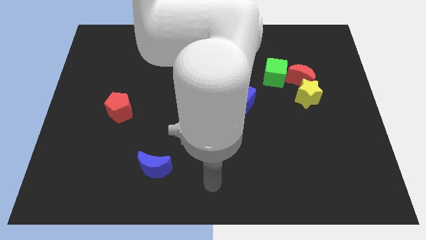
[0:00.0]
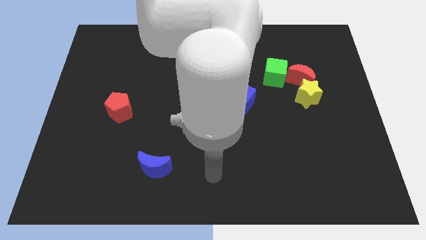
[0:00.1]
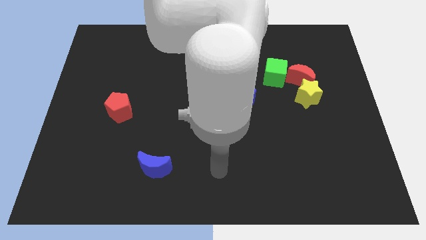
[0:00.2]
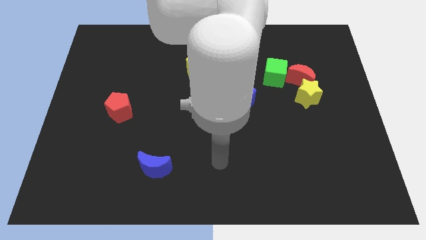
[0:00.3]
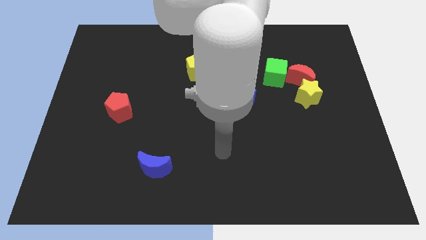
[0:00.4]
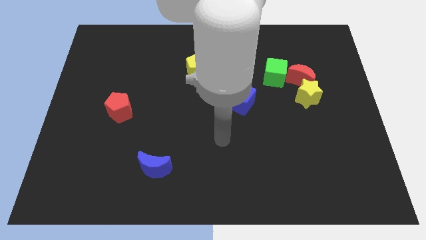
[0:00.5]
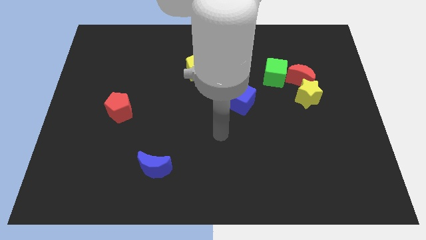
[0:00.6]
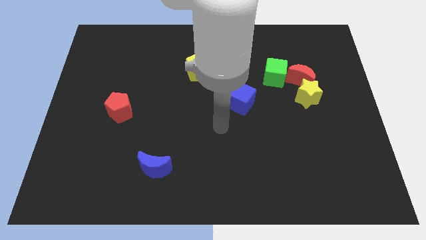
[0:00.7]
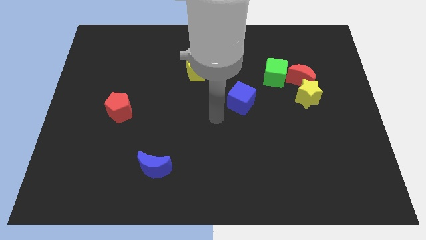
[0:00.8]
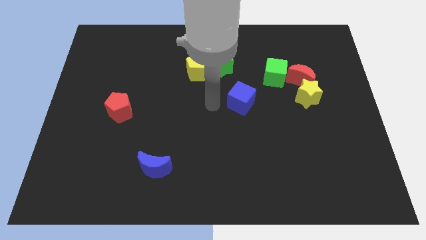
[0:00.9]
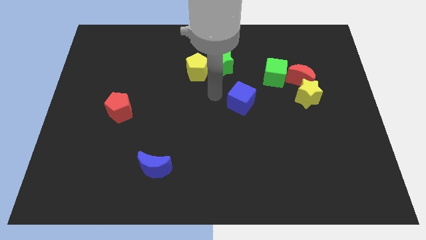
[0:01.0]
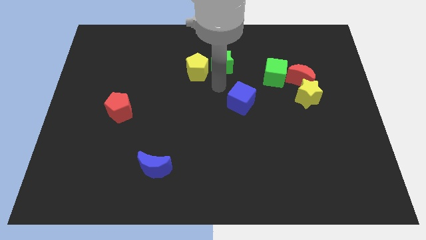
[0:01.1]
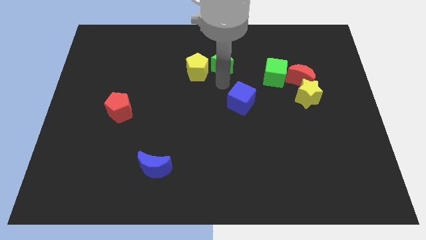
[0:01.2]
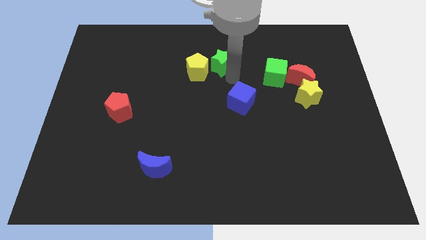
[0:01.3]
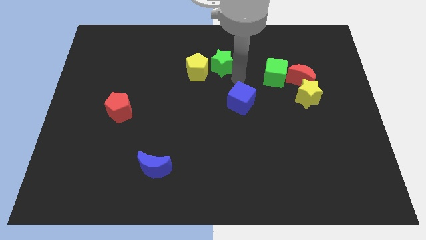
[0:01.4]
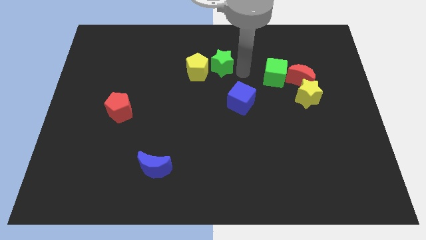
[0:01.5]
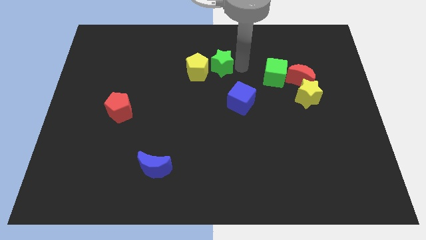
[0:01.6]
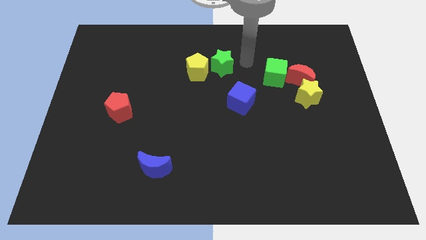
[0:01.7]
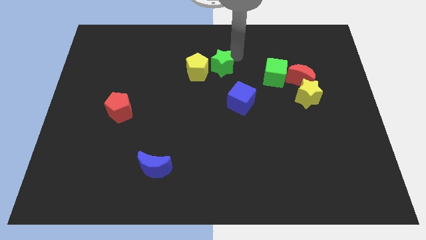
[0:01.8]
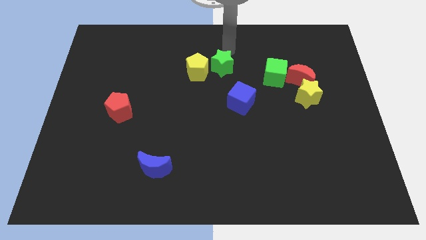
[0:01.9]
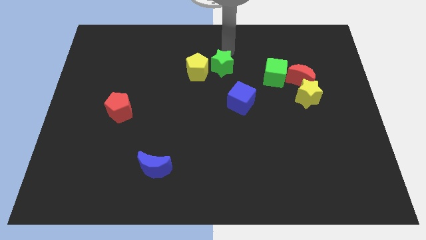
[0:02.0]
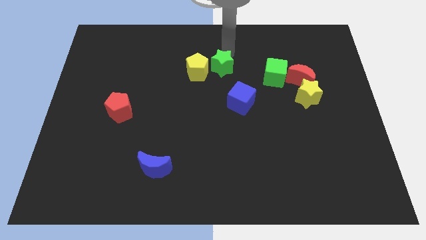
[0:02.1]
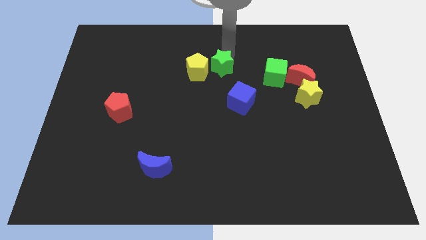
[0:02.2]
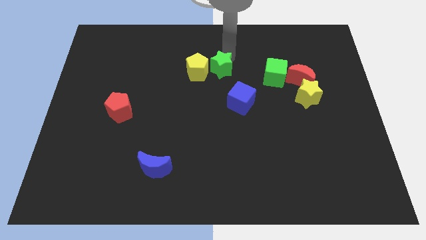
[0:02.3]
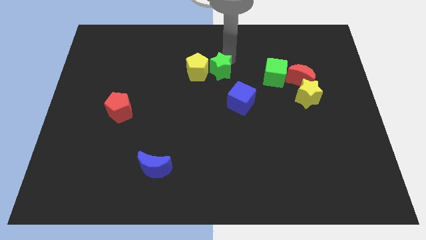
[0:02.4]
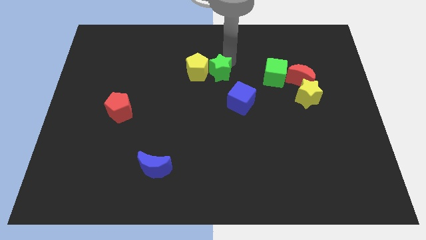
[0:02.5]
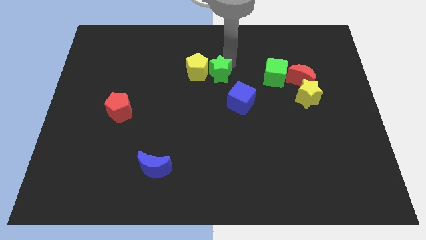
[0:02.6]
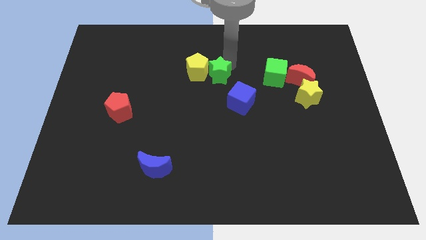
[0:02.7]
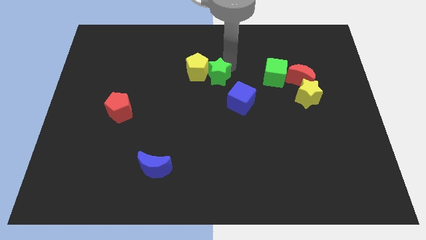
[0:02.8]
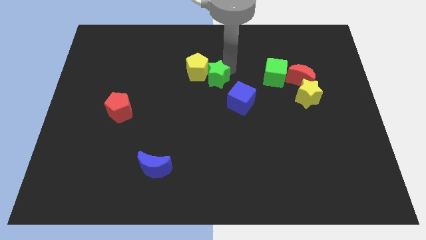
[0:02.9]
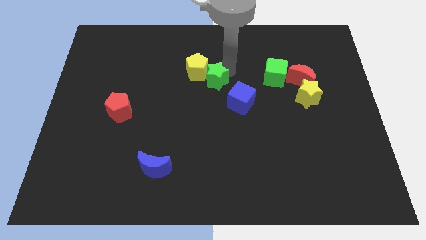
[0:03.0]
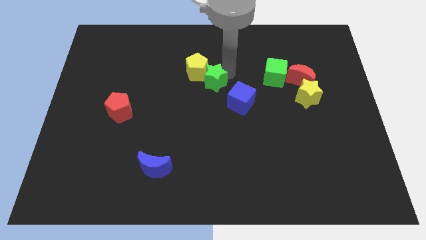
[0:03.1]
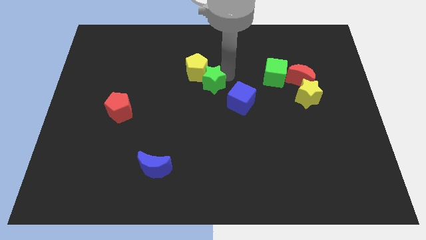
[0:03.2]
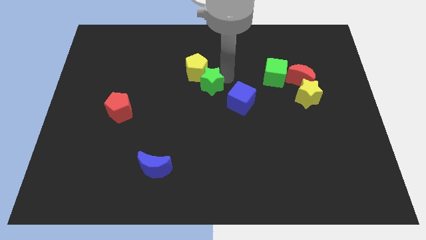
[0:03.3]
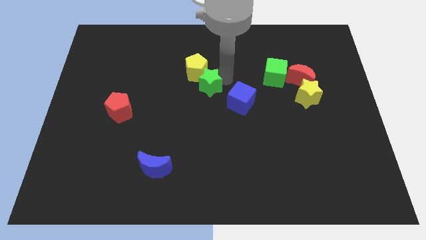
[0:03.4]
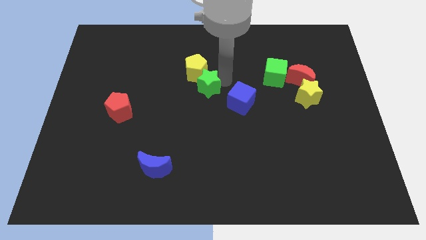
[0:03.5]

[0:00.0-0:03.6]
slide the green star a little down and left

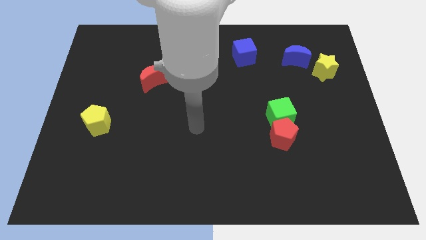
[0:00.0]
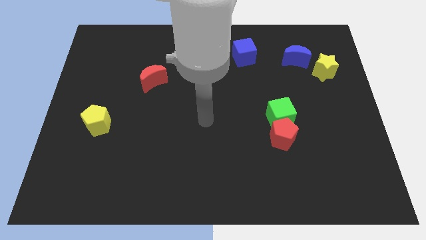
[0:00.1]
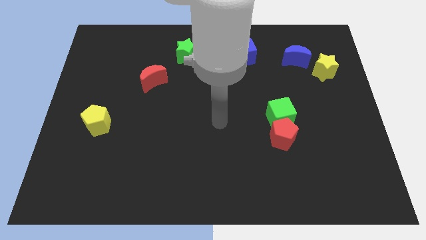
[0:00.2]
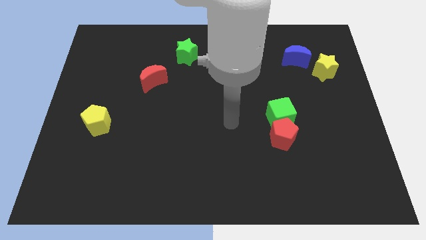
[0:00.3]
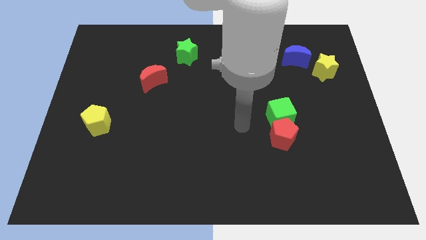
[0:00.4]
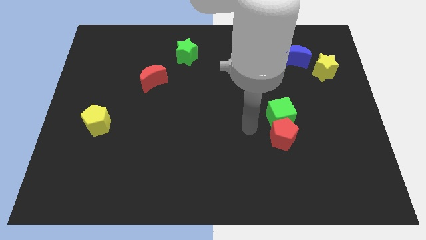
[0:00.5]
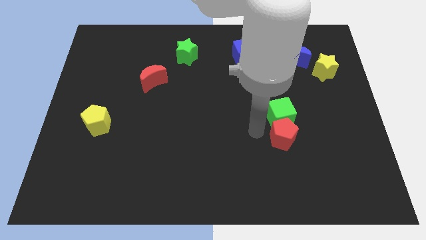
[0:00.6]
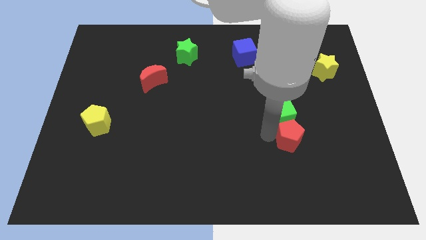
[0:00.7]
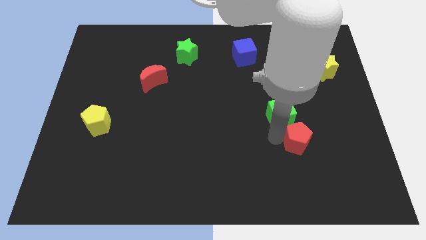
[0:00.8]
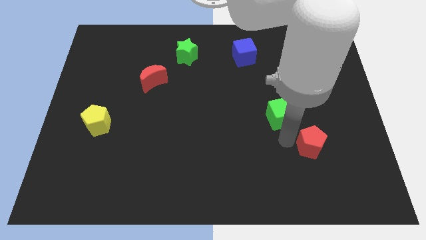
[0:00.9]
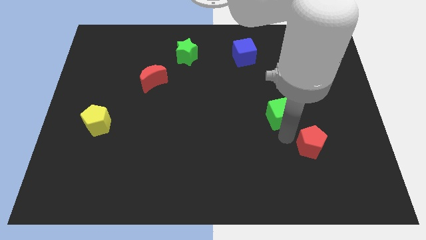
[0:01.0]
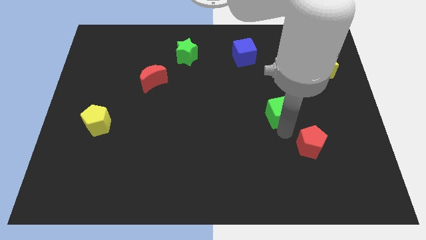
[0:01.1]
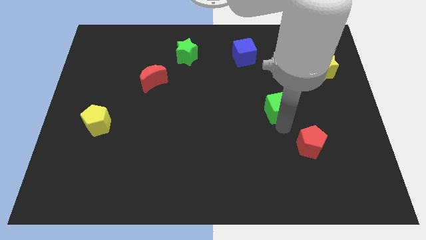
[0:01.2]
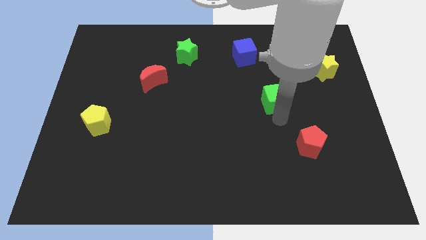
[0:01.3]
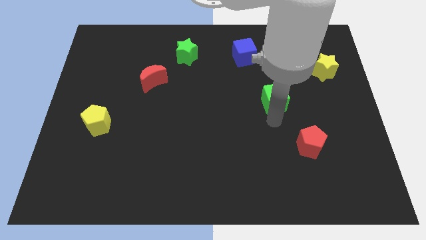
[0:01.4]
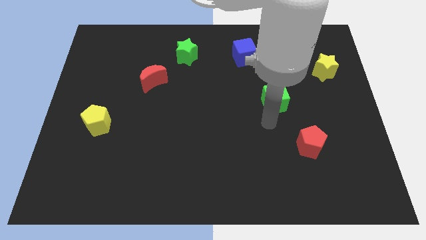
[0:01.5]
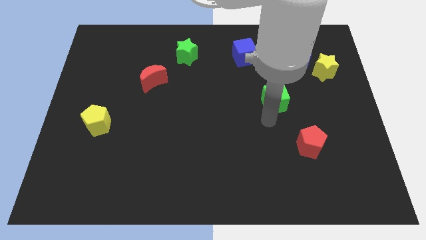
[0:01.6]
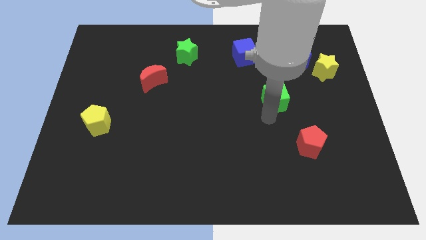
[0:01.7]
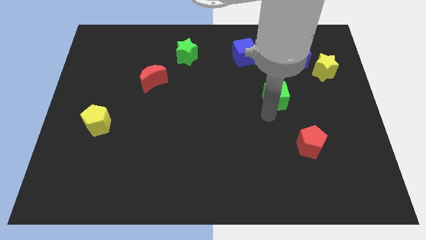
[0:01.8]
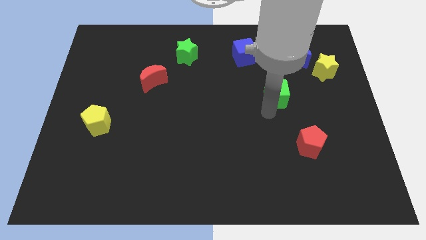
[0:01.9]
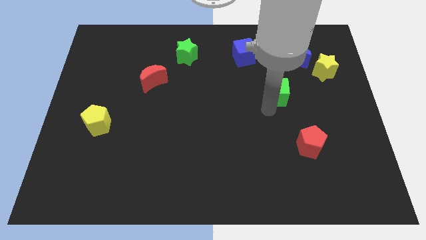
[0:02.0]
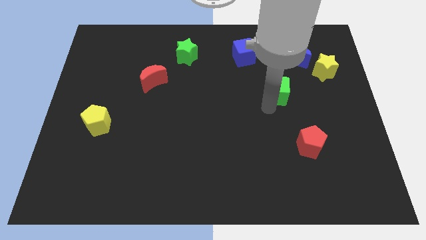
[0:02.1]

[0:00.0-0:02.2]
slightly move the green cube upwards

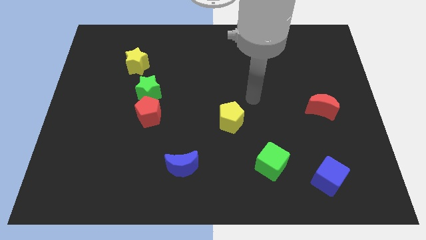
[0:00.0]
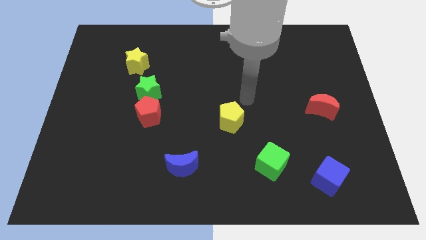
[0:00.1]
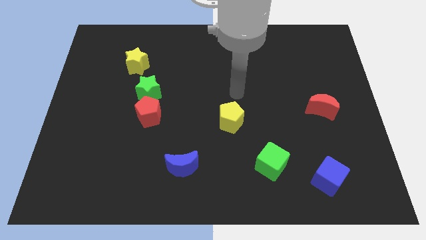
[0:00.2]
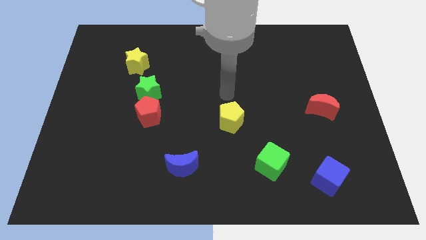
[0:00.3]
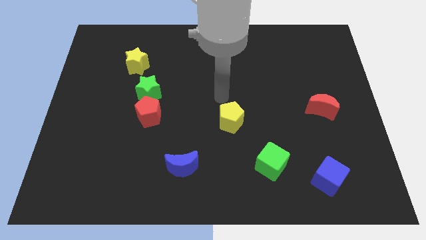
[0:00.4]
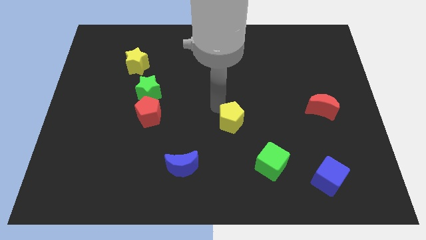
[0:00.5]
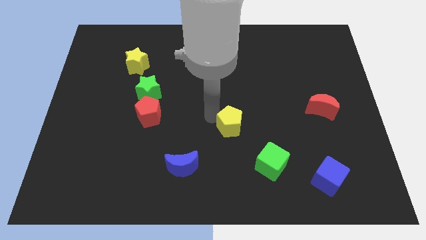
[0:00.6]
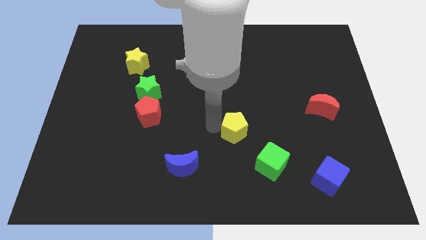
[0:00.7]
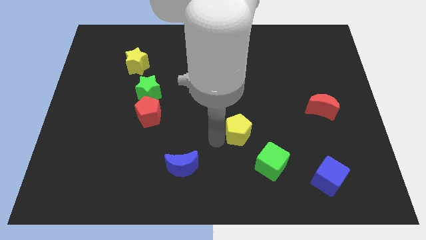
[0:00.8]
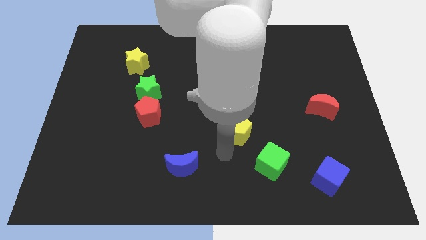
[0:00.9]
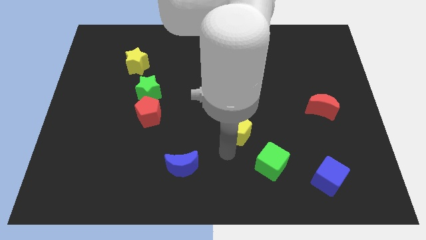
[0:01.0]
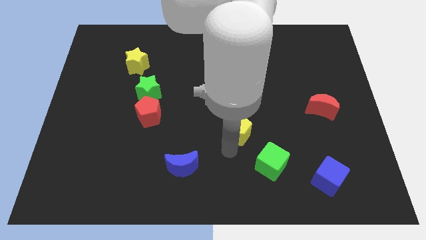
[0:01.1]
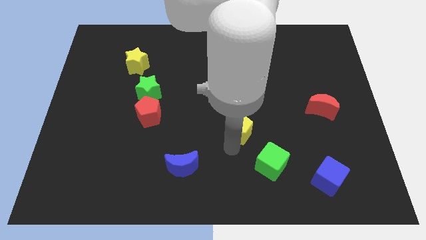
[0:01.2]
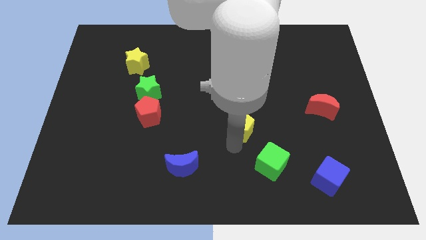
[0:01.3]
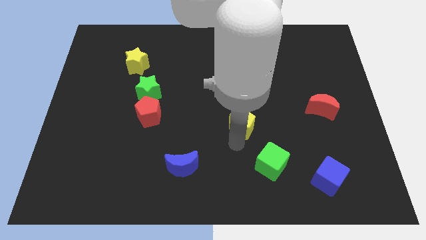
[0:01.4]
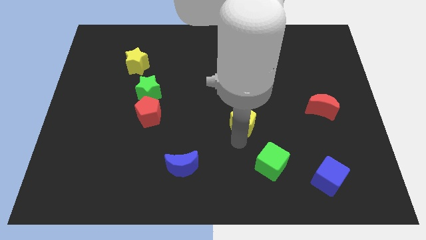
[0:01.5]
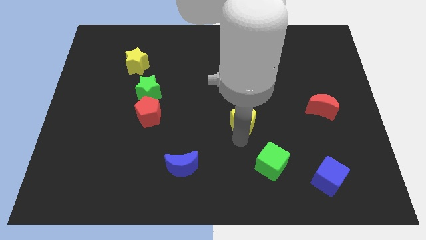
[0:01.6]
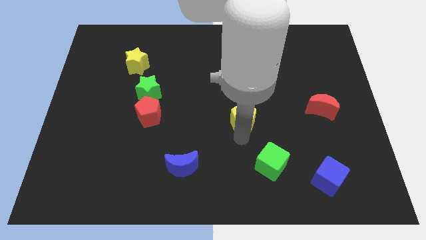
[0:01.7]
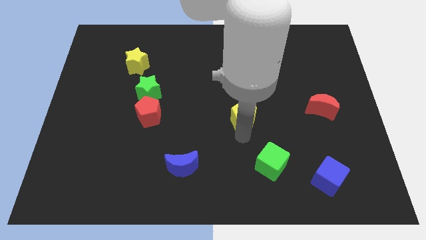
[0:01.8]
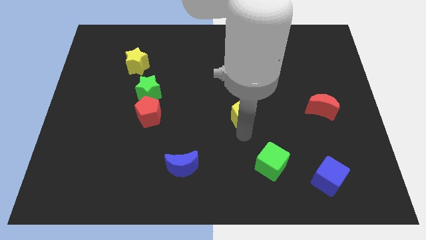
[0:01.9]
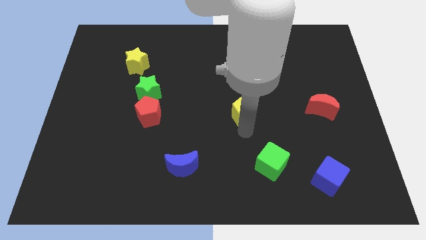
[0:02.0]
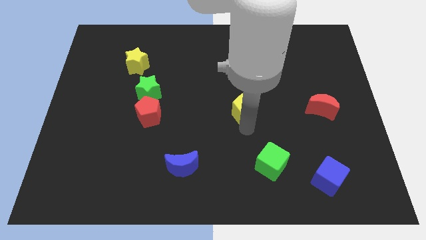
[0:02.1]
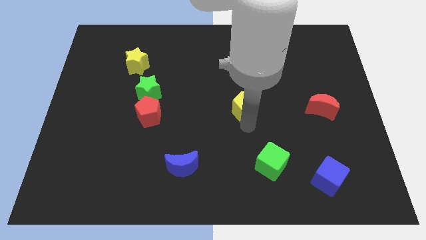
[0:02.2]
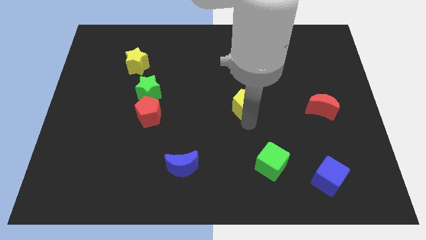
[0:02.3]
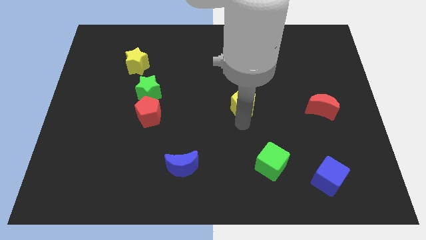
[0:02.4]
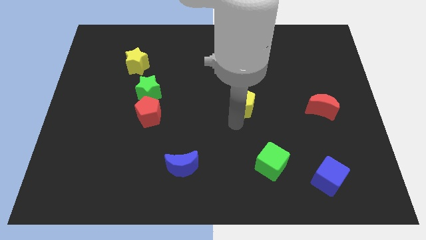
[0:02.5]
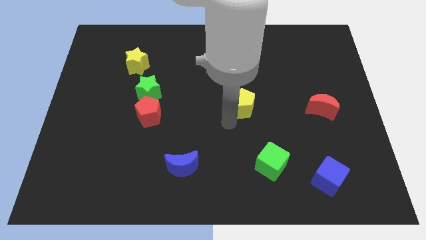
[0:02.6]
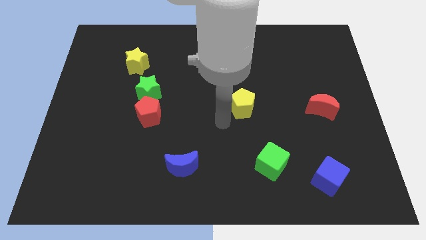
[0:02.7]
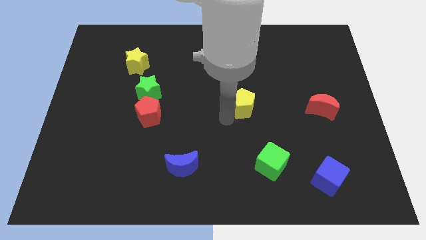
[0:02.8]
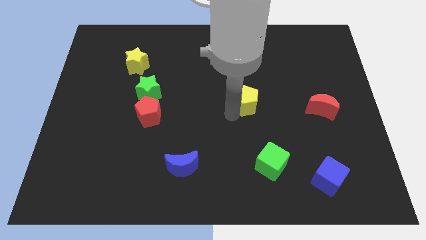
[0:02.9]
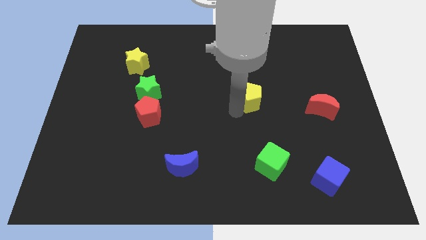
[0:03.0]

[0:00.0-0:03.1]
slide the yellow pentagon diagonally up and right a little
